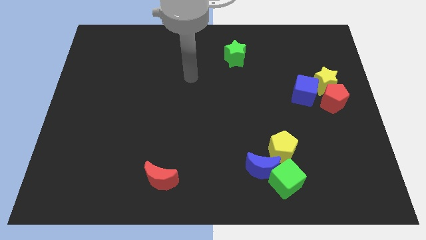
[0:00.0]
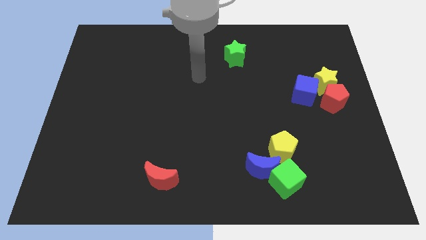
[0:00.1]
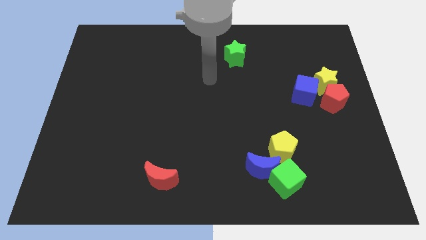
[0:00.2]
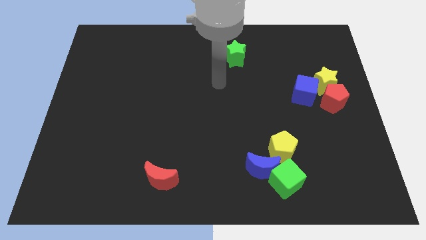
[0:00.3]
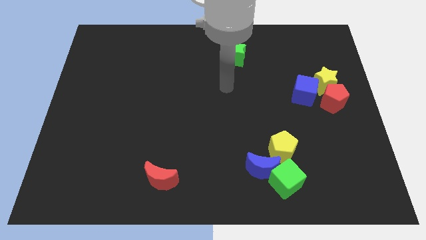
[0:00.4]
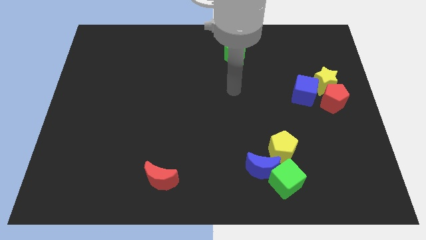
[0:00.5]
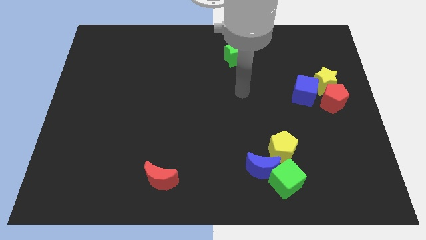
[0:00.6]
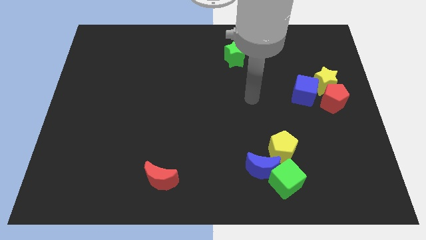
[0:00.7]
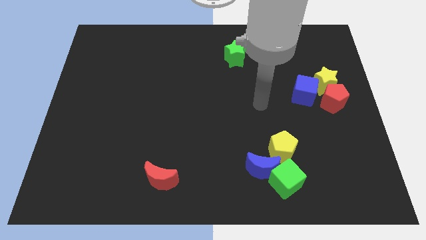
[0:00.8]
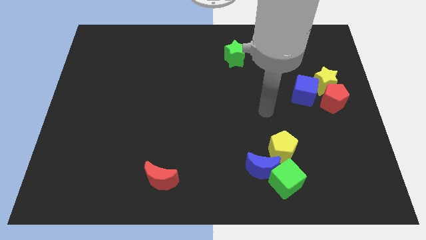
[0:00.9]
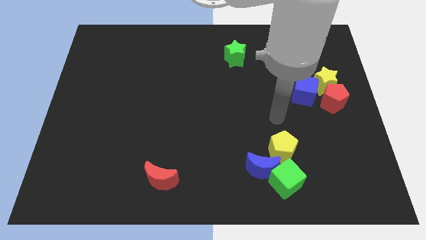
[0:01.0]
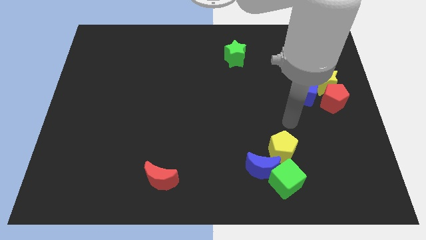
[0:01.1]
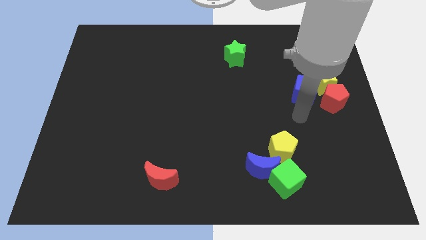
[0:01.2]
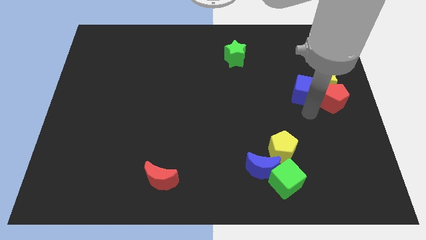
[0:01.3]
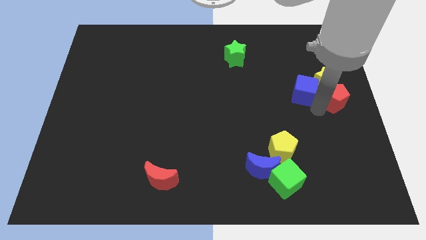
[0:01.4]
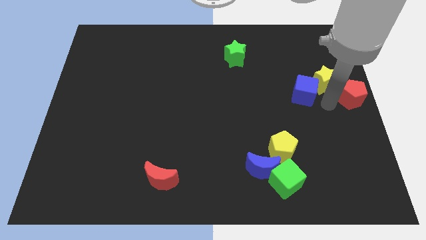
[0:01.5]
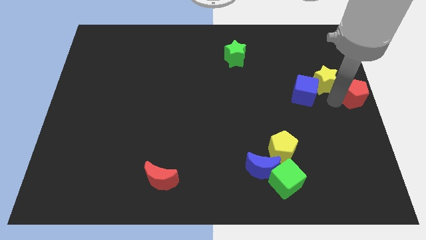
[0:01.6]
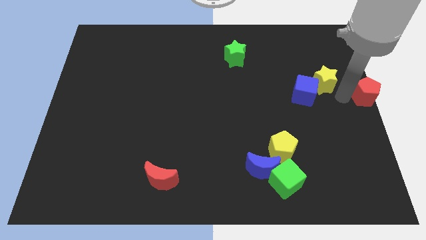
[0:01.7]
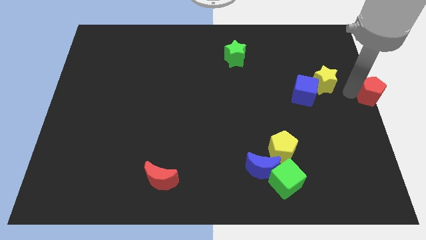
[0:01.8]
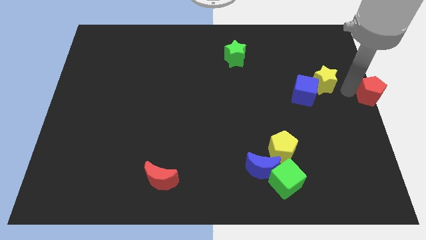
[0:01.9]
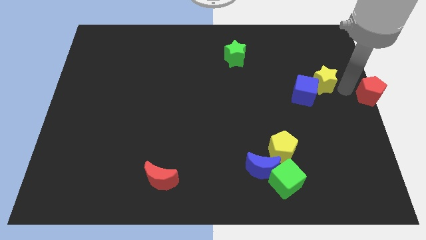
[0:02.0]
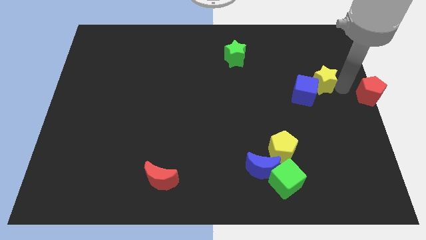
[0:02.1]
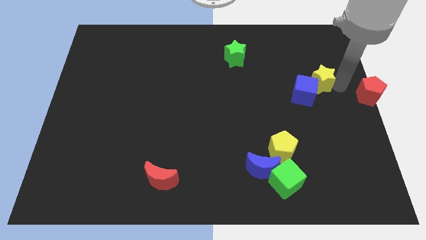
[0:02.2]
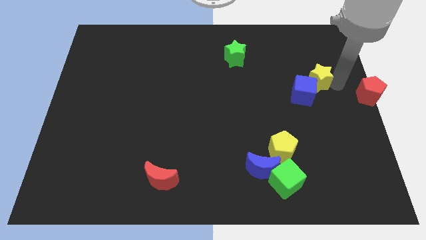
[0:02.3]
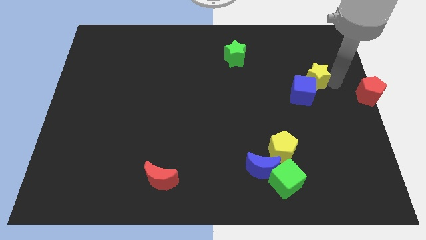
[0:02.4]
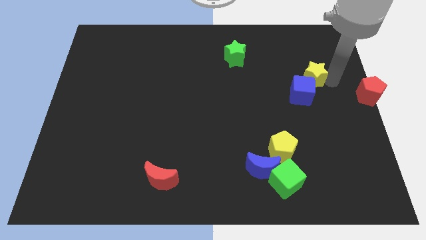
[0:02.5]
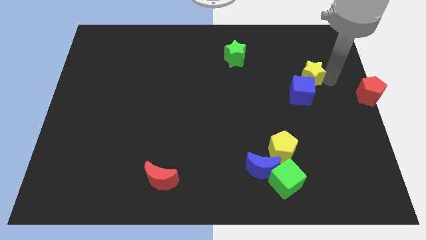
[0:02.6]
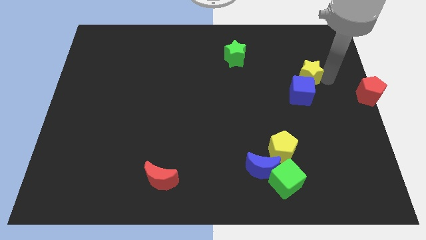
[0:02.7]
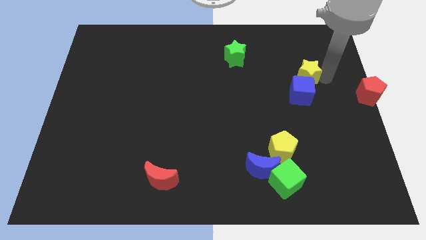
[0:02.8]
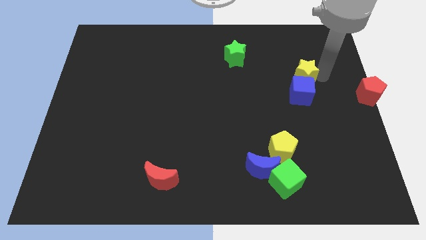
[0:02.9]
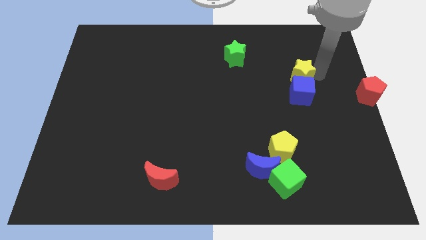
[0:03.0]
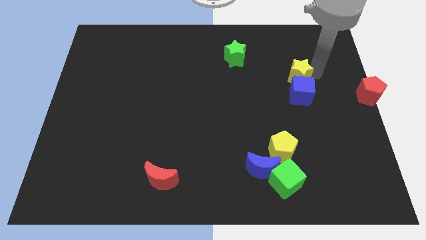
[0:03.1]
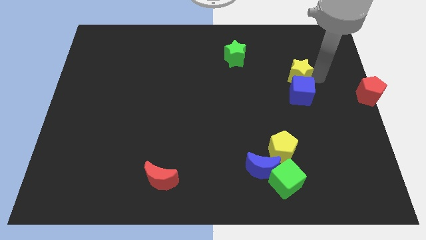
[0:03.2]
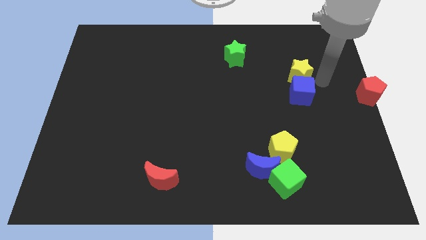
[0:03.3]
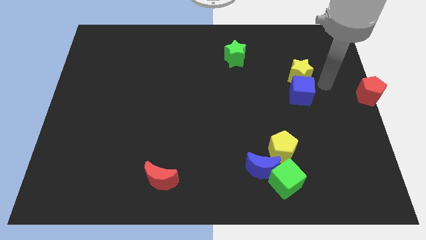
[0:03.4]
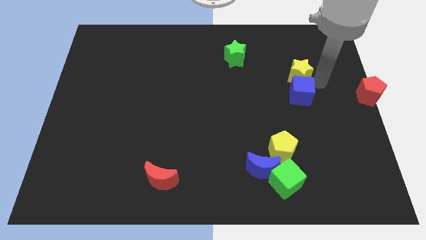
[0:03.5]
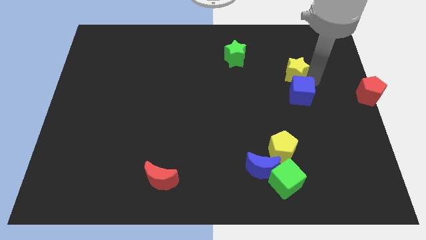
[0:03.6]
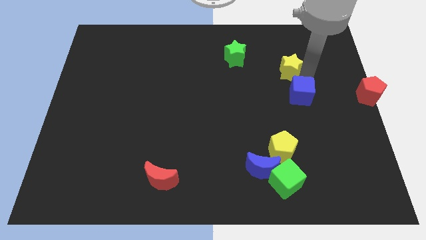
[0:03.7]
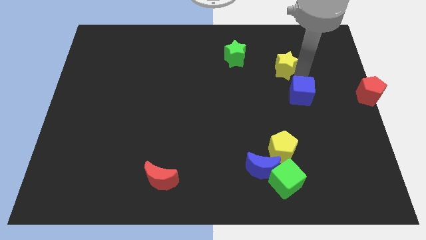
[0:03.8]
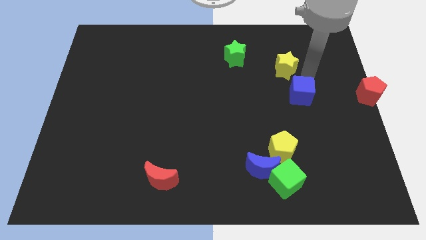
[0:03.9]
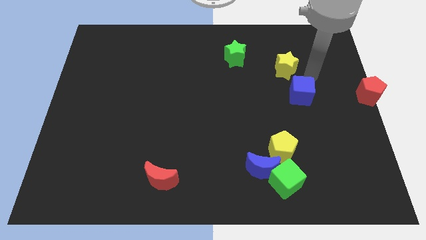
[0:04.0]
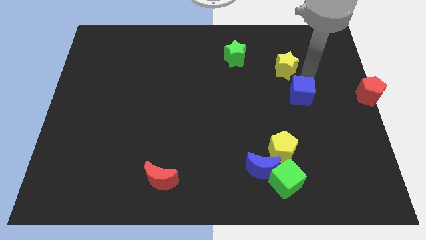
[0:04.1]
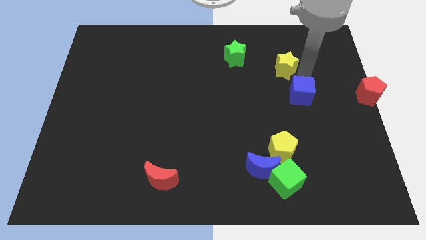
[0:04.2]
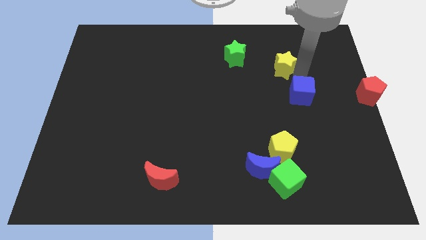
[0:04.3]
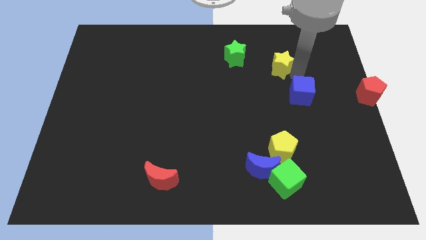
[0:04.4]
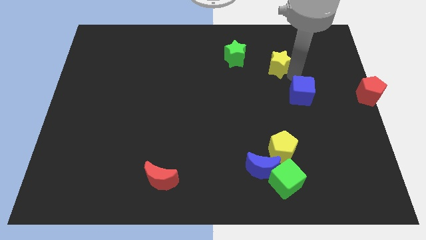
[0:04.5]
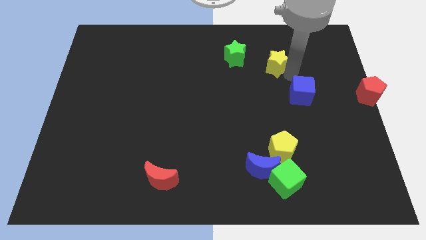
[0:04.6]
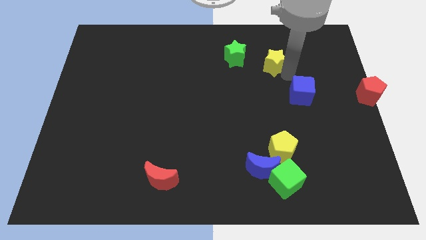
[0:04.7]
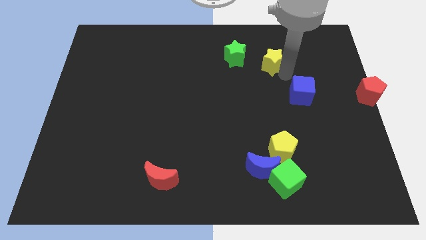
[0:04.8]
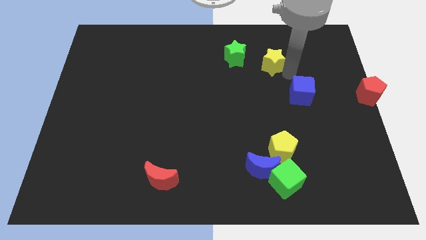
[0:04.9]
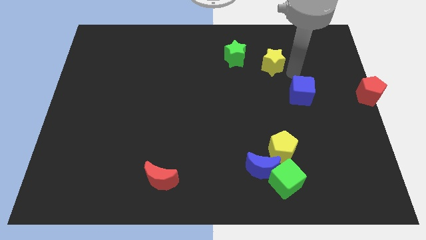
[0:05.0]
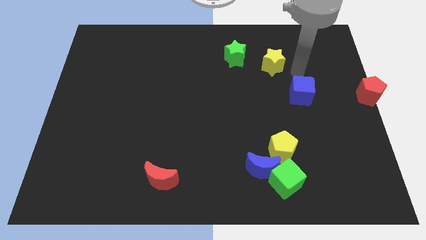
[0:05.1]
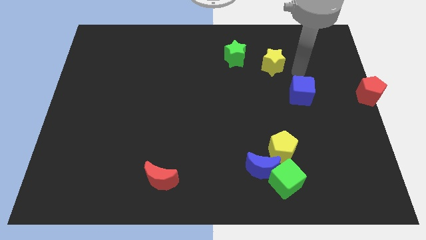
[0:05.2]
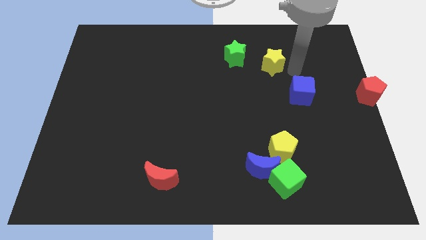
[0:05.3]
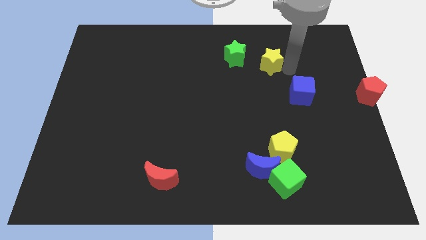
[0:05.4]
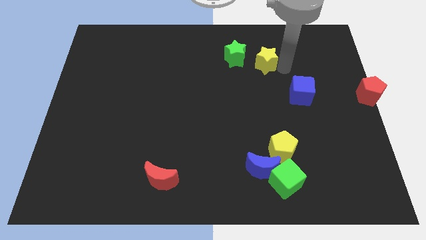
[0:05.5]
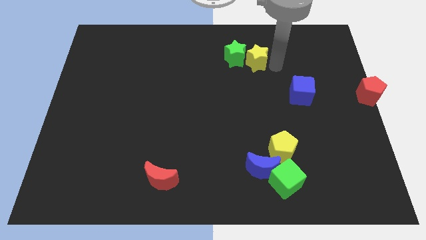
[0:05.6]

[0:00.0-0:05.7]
slide the yellow star towards the green star

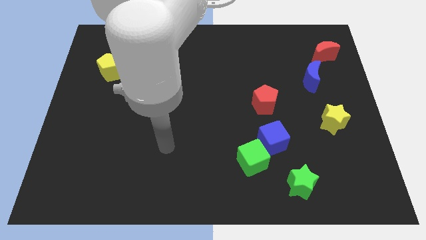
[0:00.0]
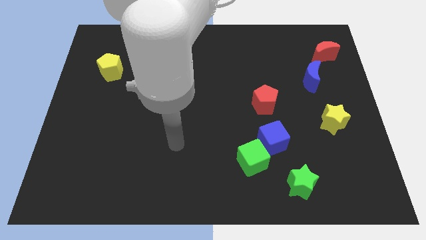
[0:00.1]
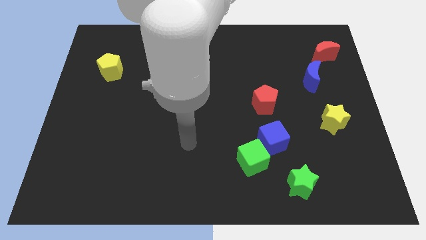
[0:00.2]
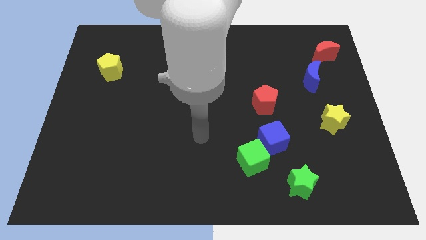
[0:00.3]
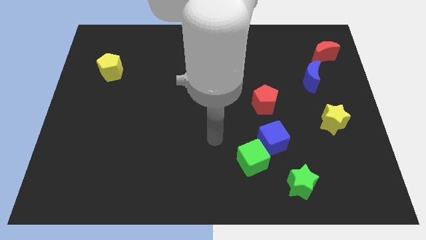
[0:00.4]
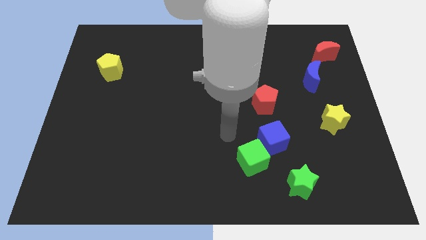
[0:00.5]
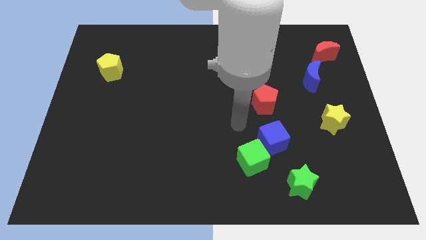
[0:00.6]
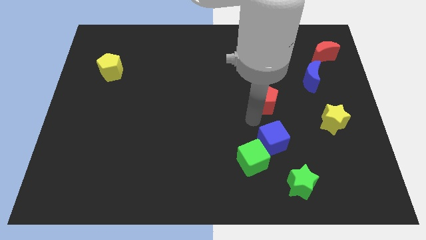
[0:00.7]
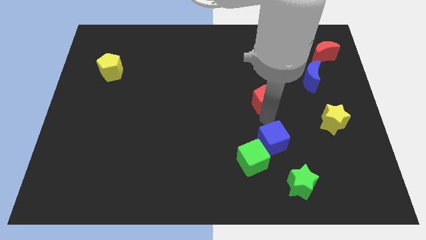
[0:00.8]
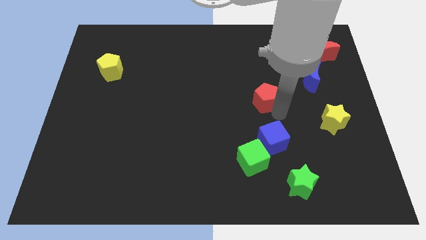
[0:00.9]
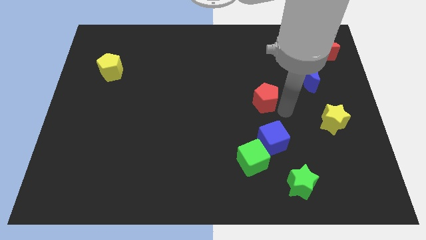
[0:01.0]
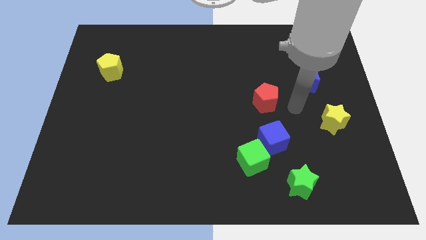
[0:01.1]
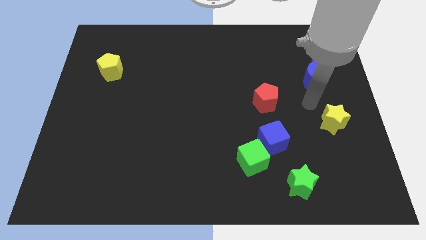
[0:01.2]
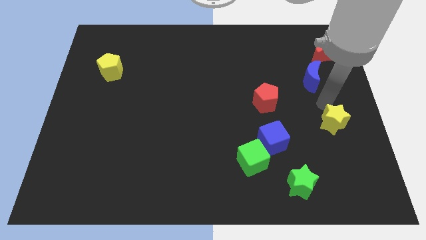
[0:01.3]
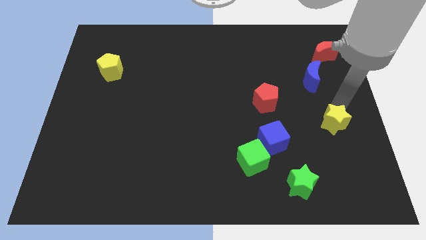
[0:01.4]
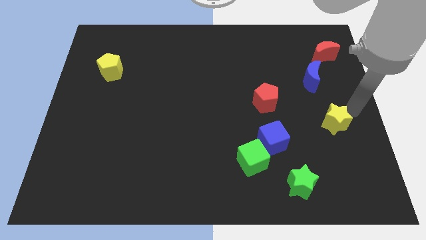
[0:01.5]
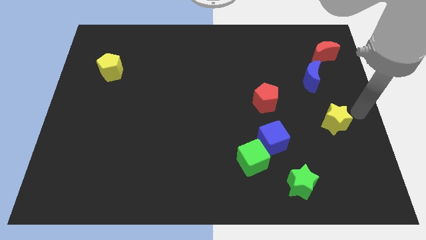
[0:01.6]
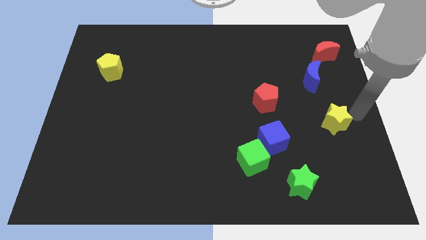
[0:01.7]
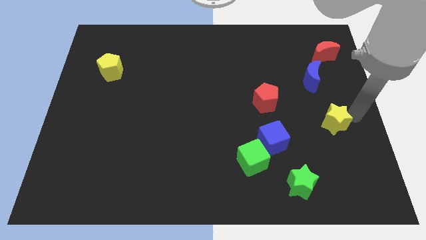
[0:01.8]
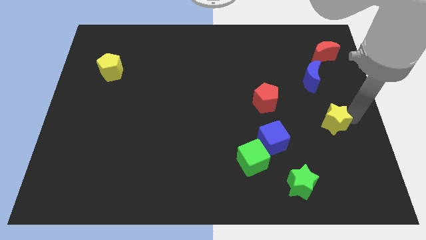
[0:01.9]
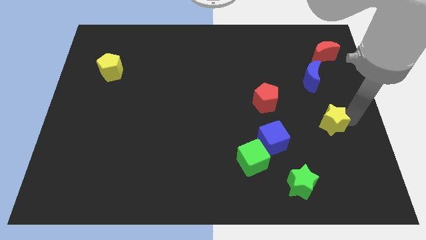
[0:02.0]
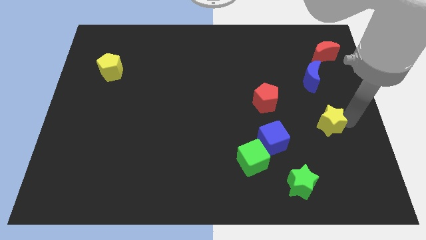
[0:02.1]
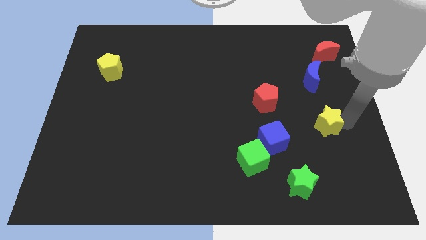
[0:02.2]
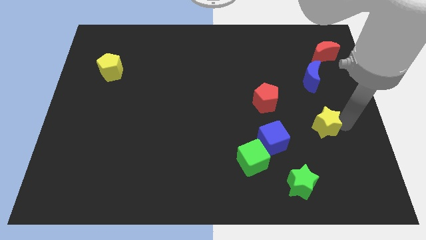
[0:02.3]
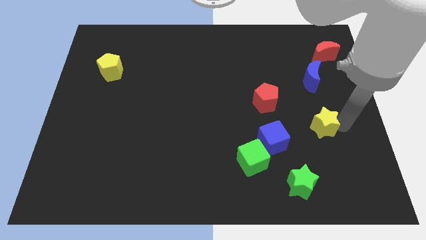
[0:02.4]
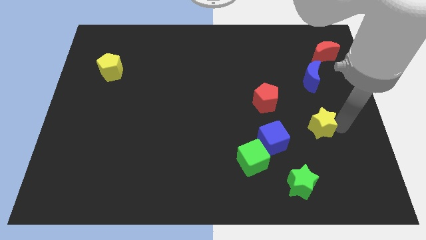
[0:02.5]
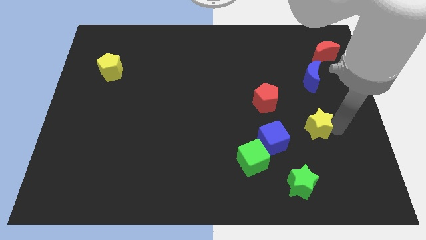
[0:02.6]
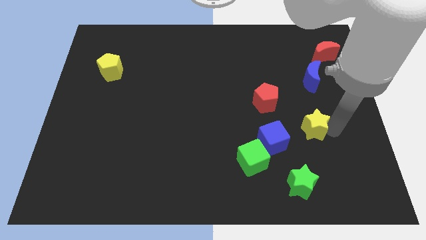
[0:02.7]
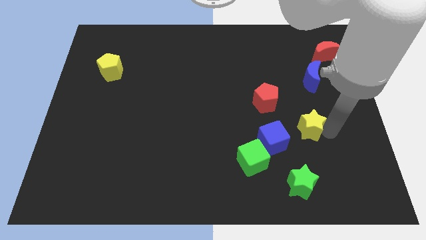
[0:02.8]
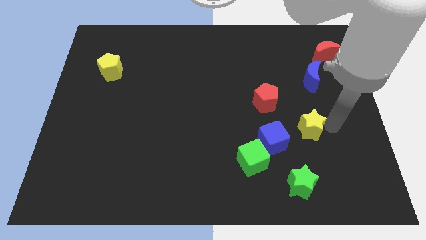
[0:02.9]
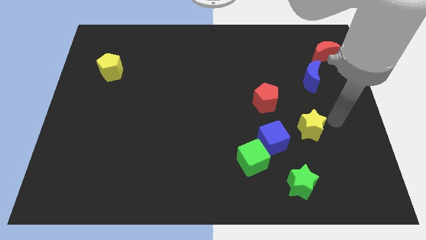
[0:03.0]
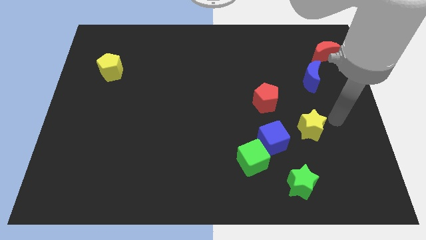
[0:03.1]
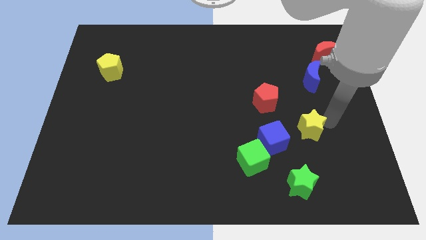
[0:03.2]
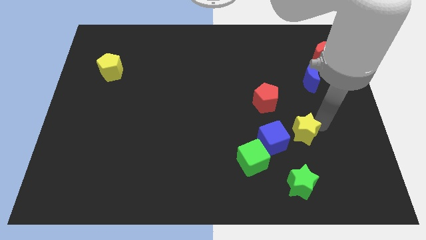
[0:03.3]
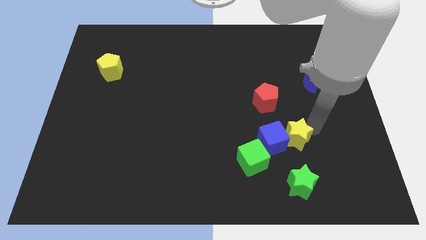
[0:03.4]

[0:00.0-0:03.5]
slide the yellow star close to the blue cube
